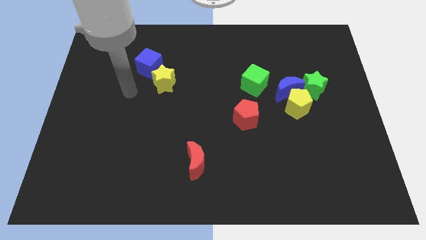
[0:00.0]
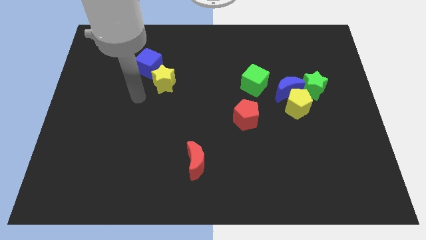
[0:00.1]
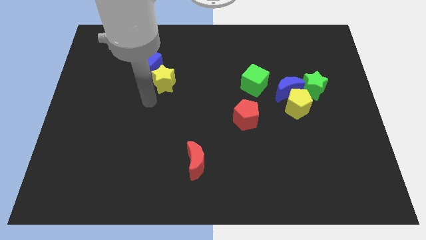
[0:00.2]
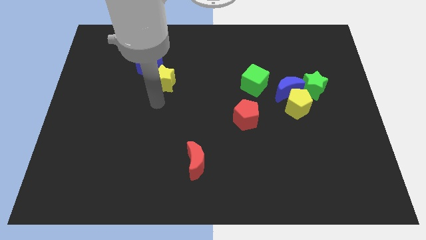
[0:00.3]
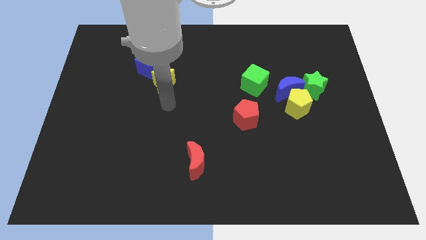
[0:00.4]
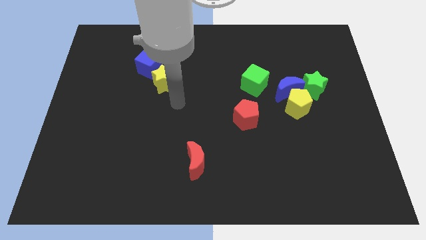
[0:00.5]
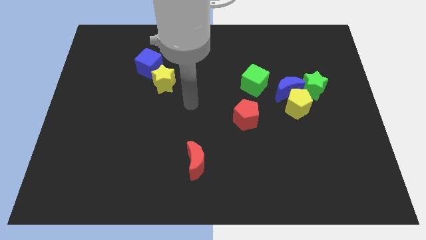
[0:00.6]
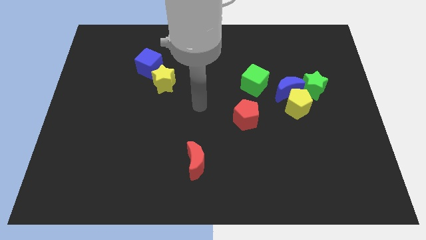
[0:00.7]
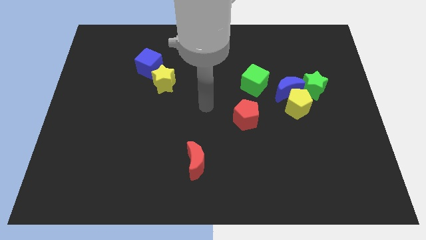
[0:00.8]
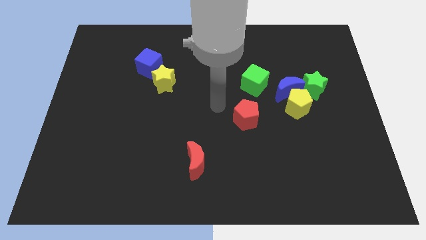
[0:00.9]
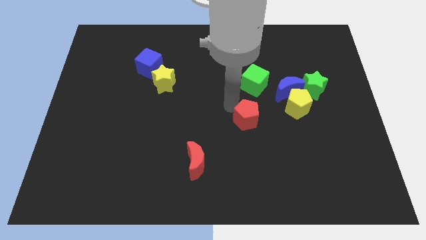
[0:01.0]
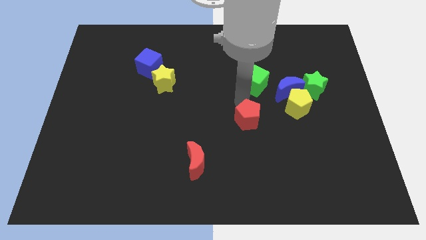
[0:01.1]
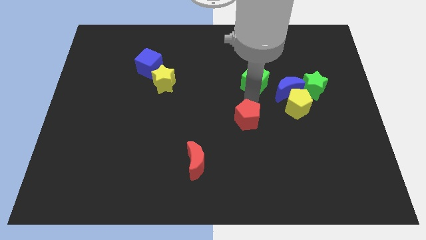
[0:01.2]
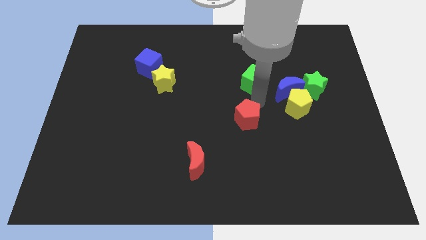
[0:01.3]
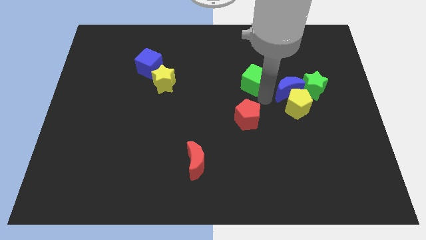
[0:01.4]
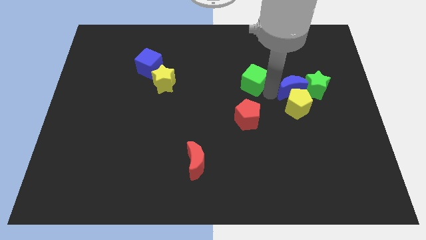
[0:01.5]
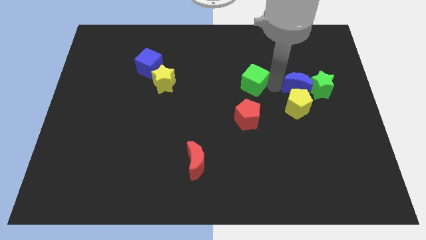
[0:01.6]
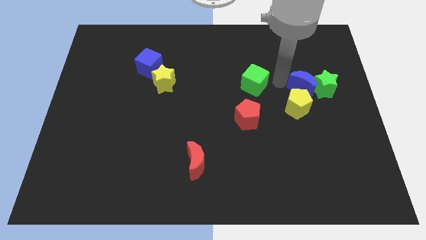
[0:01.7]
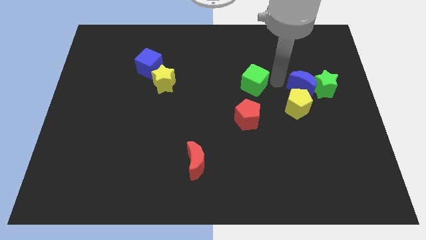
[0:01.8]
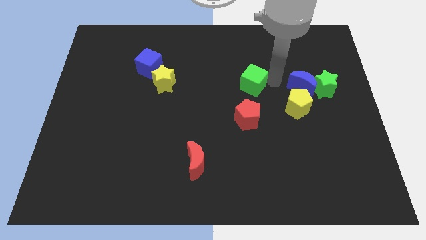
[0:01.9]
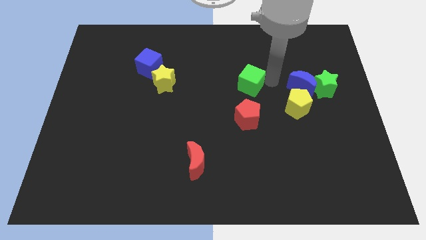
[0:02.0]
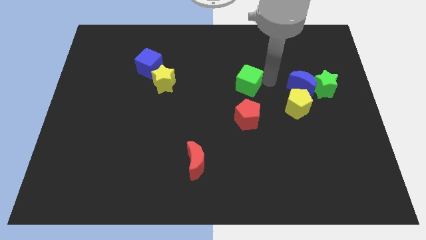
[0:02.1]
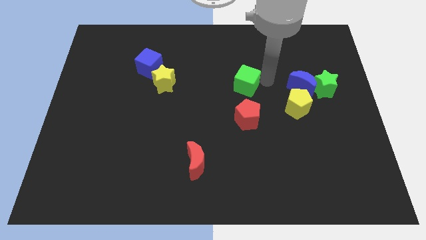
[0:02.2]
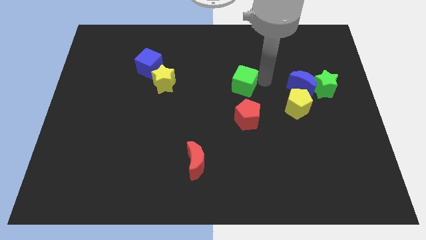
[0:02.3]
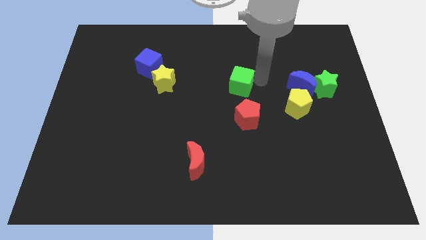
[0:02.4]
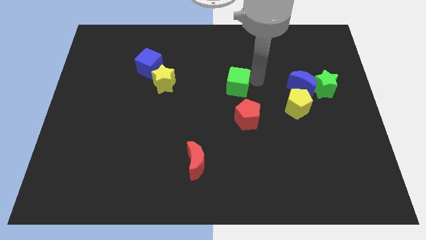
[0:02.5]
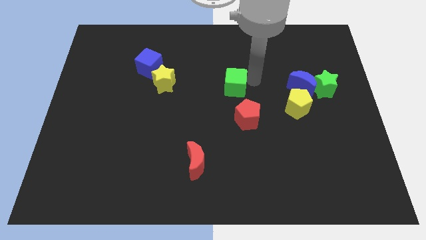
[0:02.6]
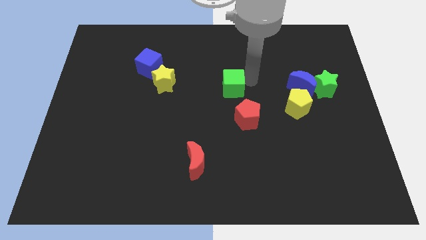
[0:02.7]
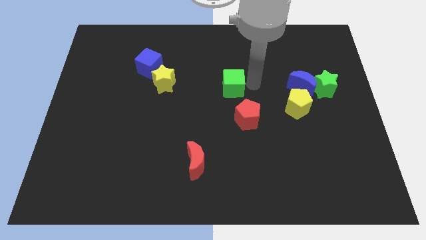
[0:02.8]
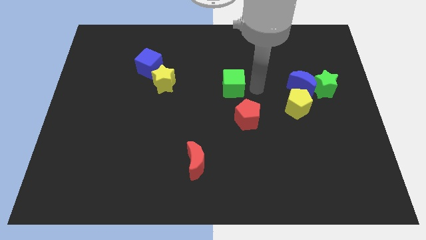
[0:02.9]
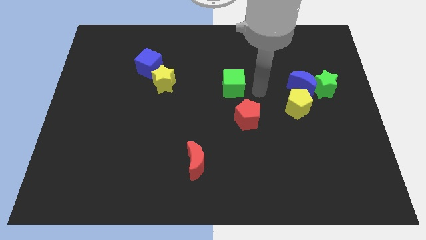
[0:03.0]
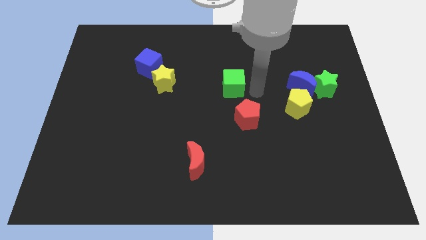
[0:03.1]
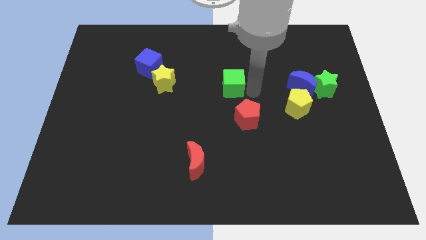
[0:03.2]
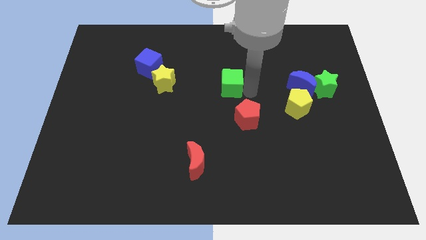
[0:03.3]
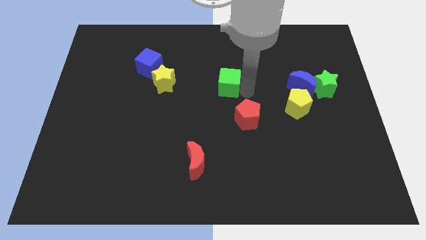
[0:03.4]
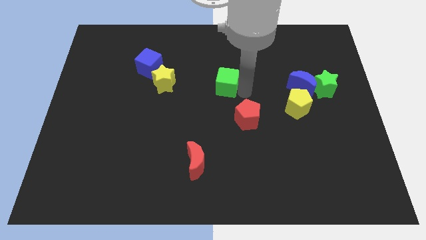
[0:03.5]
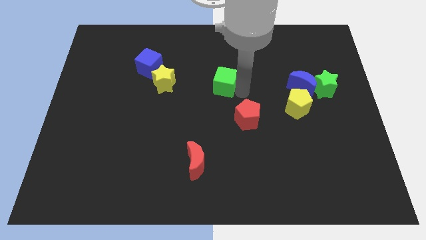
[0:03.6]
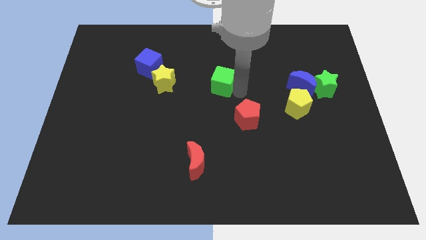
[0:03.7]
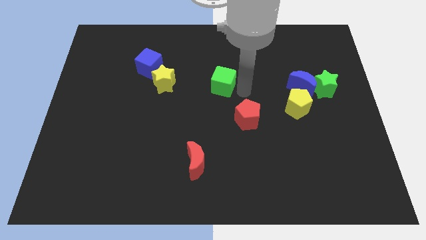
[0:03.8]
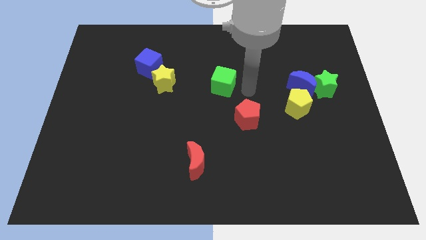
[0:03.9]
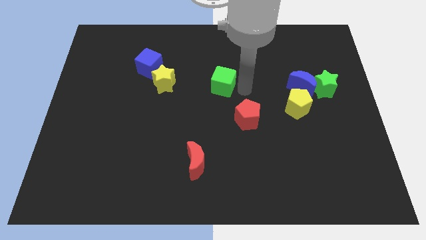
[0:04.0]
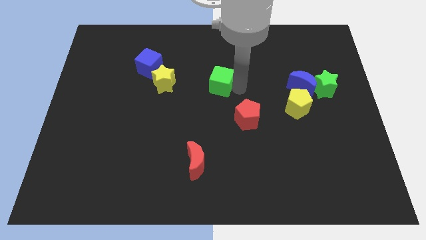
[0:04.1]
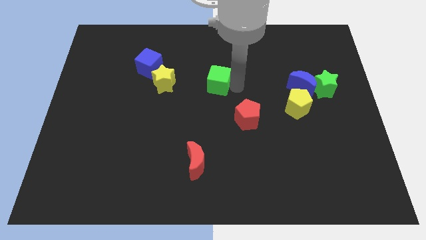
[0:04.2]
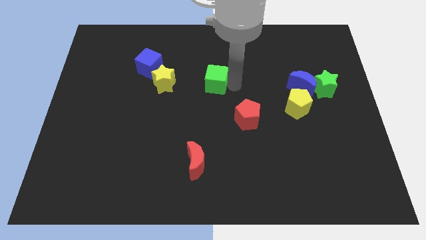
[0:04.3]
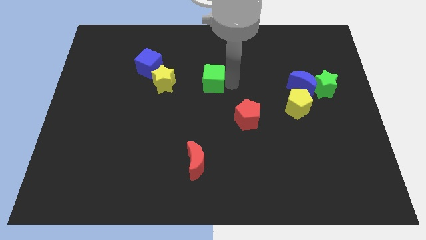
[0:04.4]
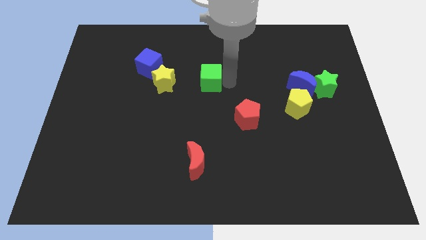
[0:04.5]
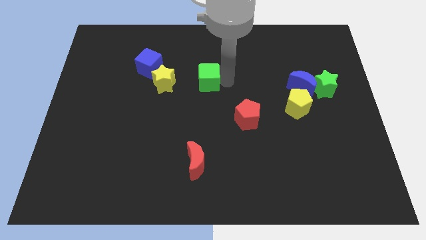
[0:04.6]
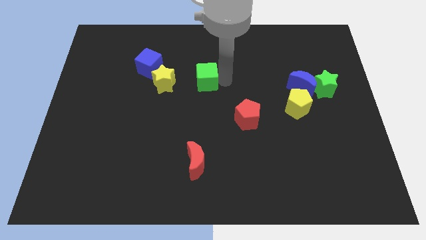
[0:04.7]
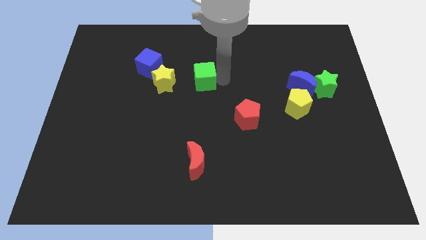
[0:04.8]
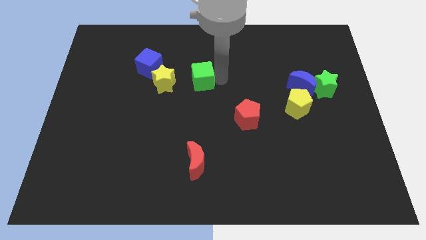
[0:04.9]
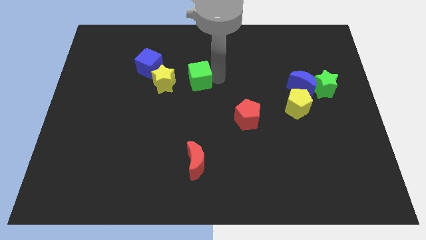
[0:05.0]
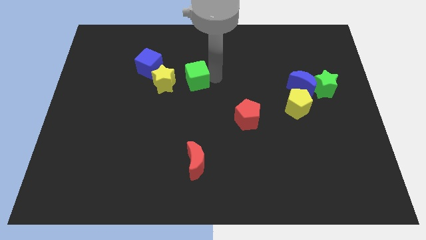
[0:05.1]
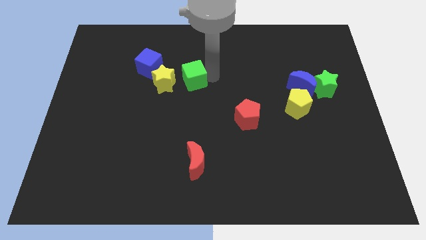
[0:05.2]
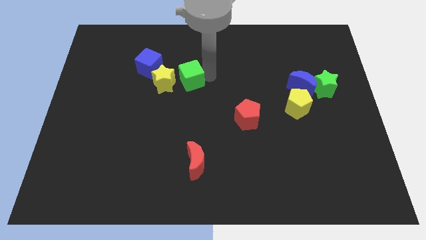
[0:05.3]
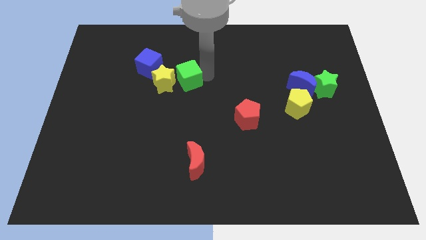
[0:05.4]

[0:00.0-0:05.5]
move the green cube diagonally down and to the right of the blue cube

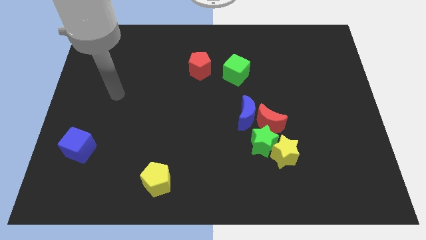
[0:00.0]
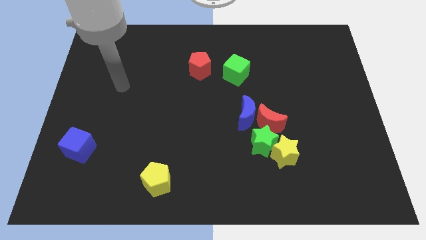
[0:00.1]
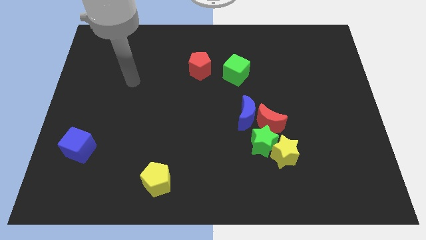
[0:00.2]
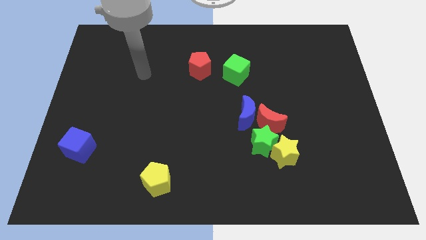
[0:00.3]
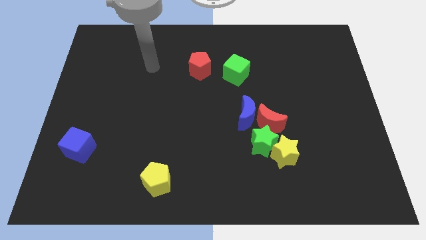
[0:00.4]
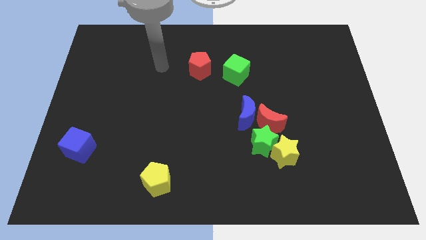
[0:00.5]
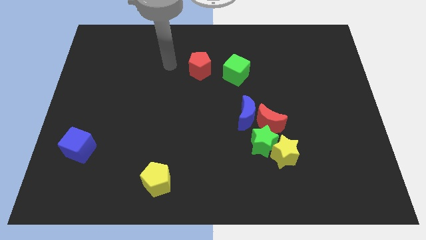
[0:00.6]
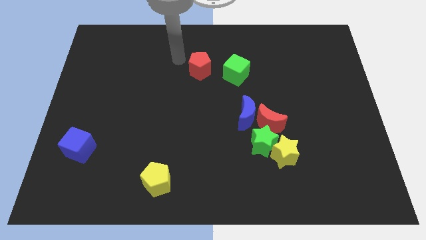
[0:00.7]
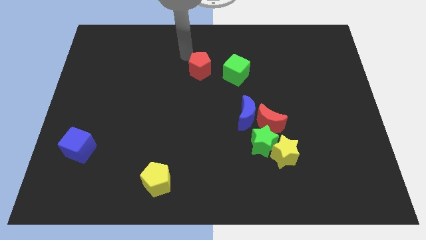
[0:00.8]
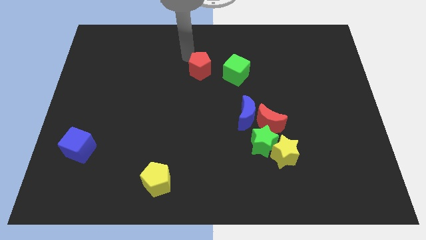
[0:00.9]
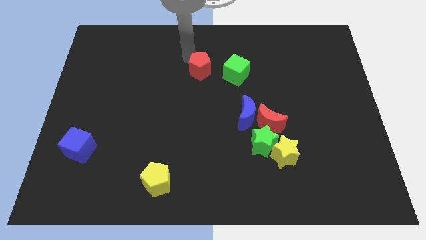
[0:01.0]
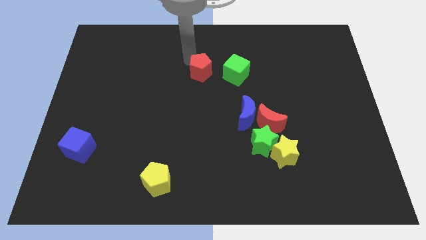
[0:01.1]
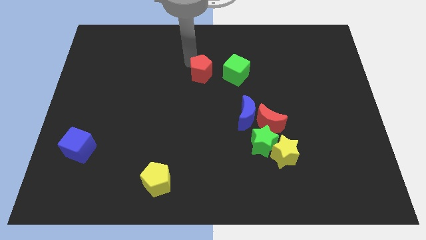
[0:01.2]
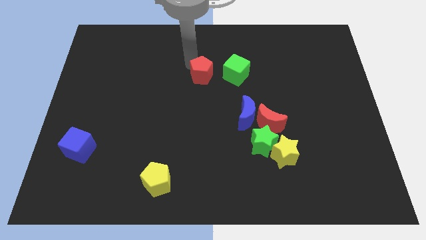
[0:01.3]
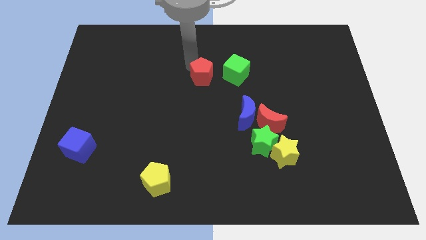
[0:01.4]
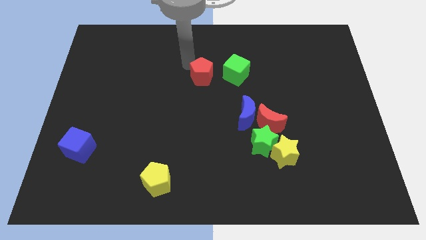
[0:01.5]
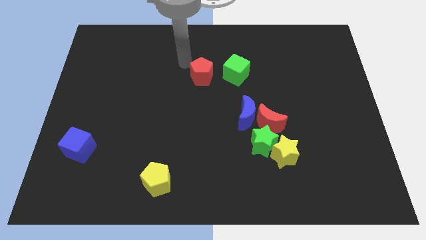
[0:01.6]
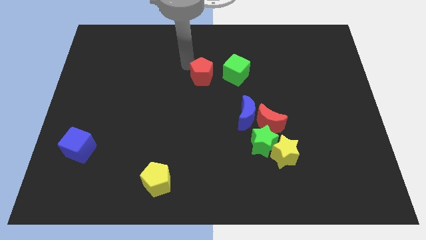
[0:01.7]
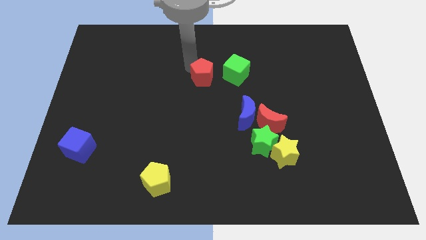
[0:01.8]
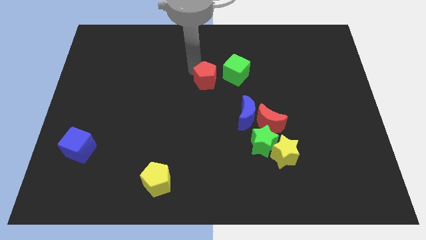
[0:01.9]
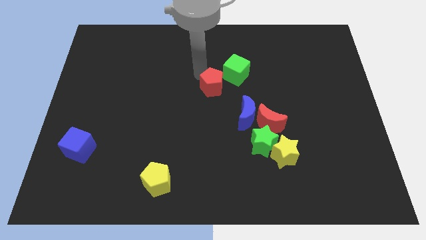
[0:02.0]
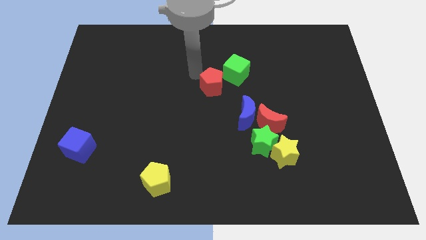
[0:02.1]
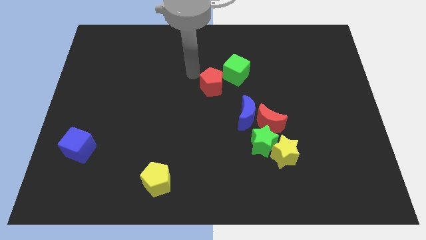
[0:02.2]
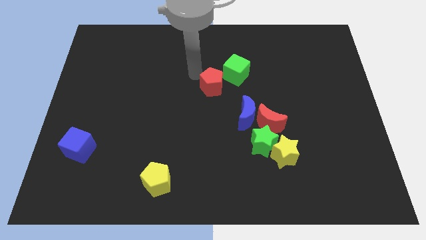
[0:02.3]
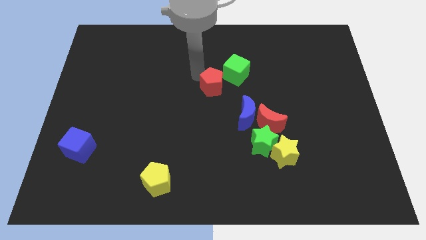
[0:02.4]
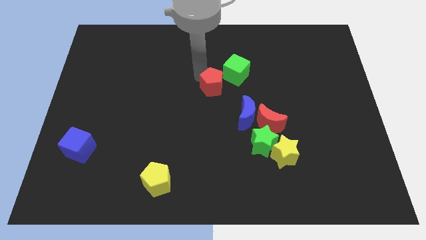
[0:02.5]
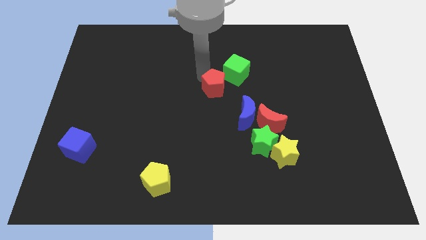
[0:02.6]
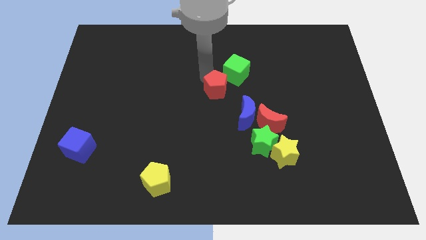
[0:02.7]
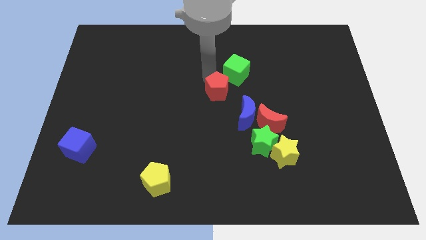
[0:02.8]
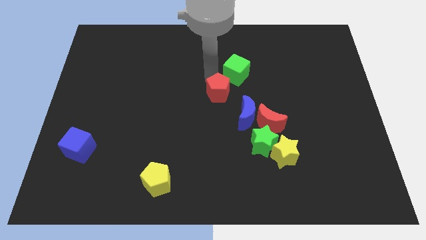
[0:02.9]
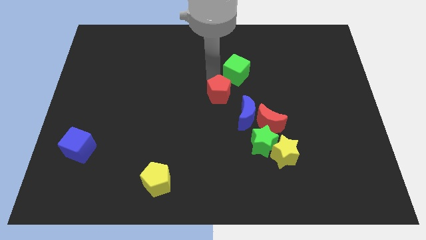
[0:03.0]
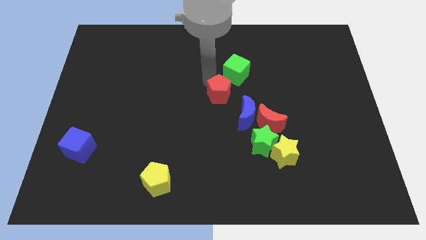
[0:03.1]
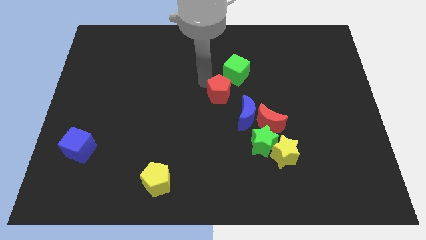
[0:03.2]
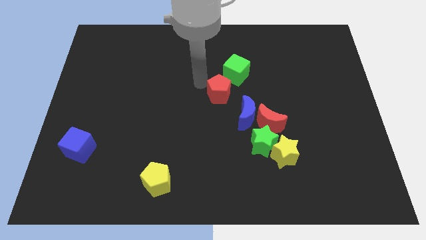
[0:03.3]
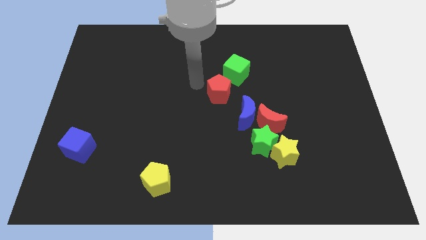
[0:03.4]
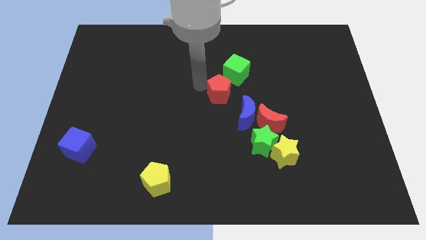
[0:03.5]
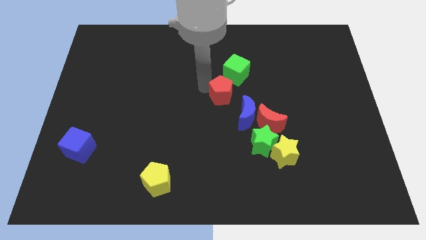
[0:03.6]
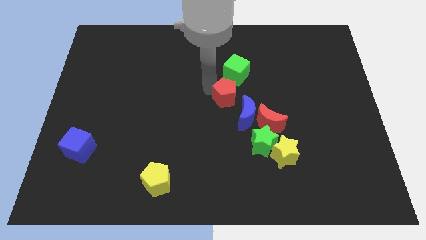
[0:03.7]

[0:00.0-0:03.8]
move the red pentagon to the top left side of the red moon
